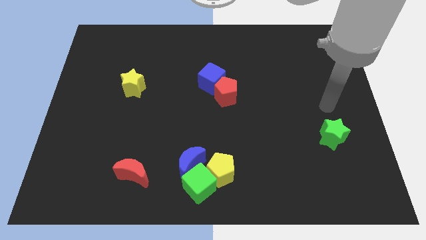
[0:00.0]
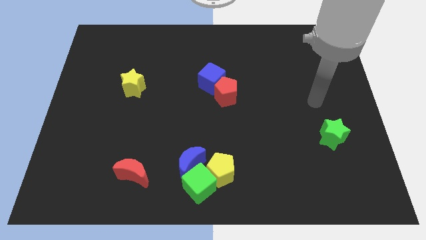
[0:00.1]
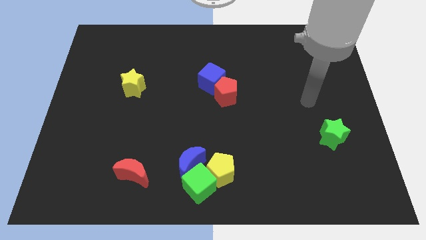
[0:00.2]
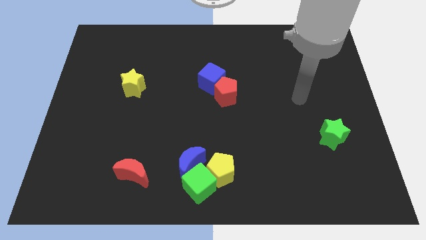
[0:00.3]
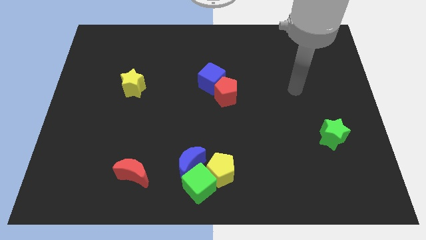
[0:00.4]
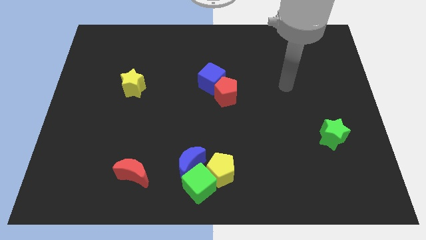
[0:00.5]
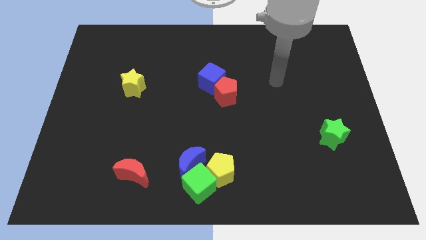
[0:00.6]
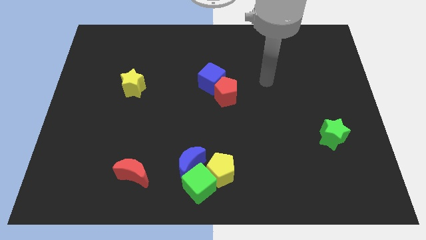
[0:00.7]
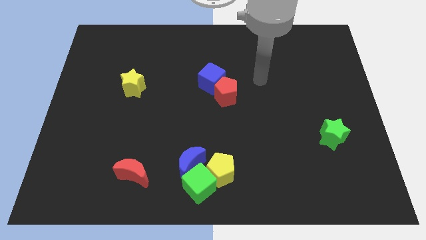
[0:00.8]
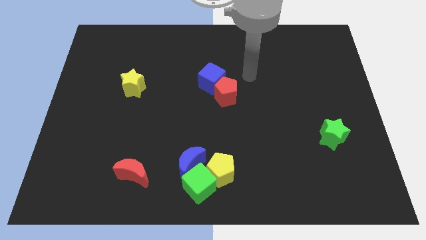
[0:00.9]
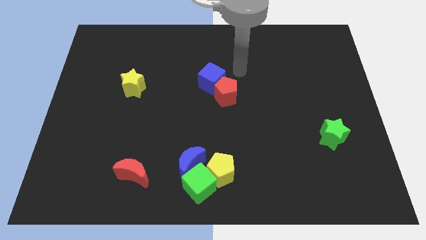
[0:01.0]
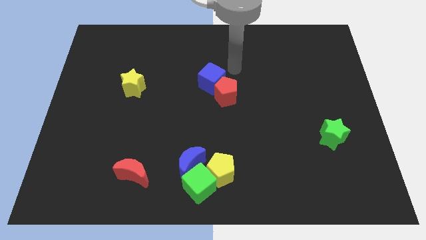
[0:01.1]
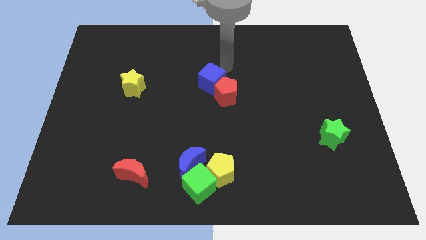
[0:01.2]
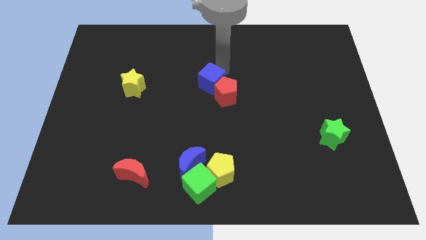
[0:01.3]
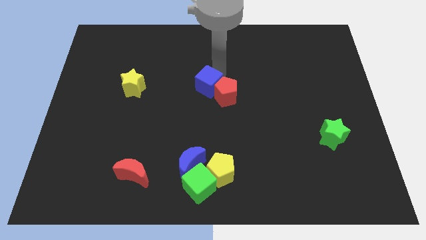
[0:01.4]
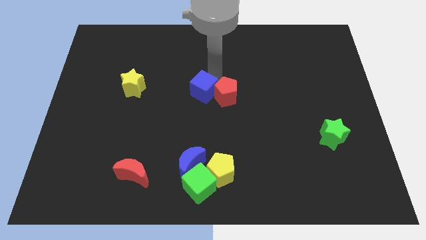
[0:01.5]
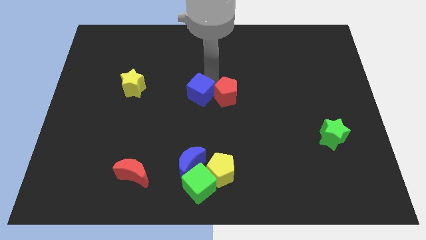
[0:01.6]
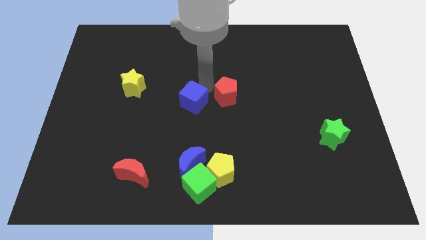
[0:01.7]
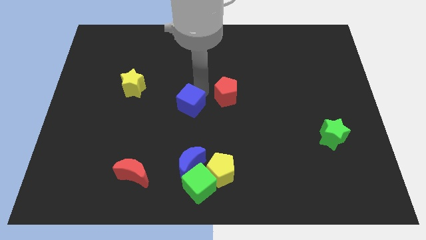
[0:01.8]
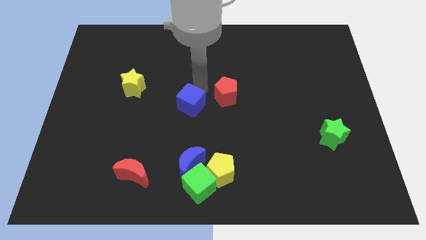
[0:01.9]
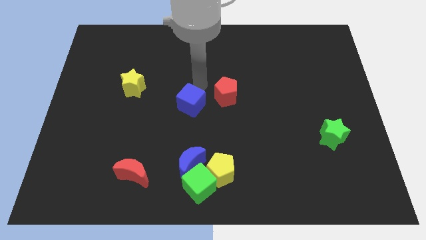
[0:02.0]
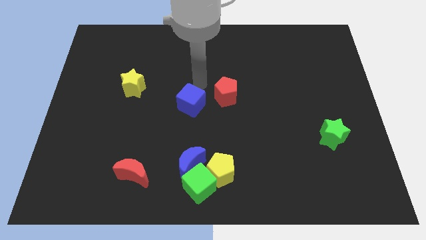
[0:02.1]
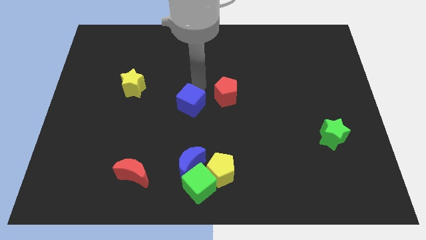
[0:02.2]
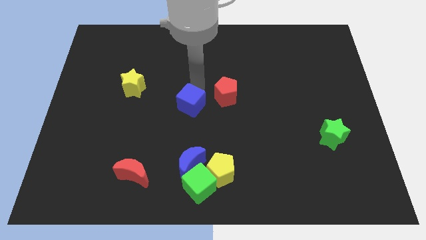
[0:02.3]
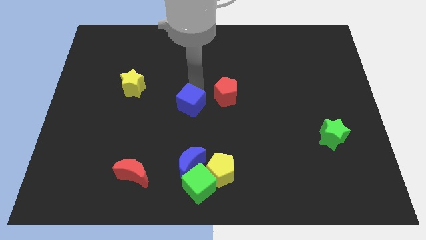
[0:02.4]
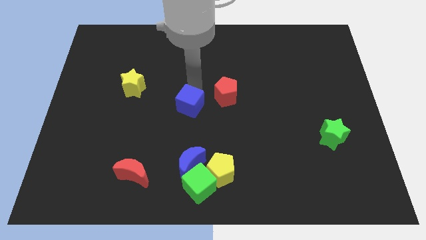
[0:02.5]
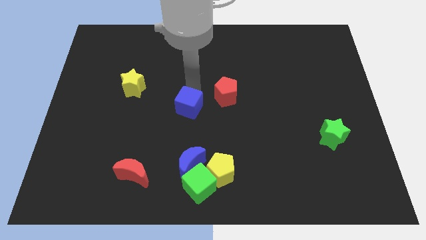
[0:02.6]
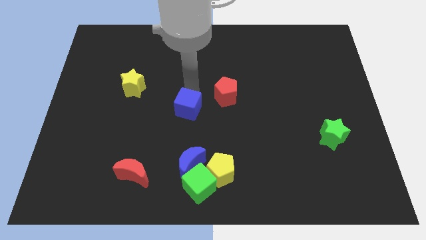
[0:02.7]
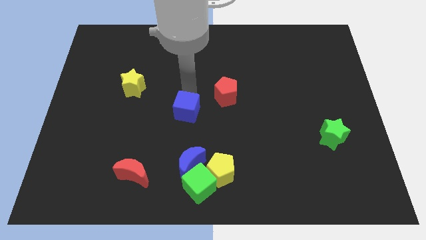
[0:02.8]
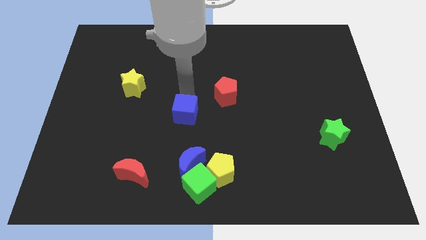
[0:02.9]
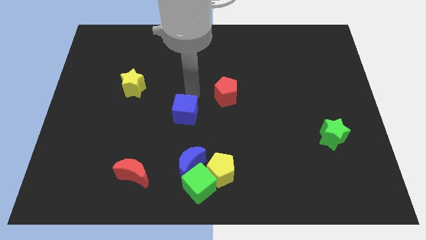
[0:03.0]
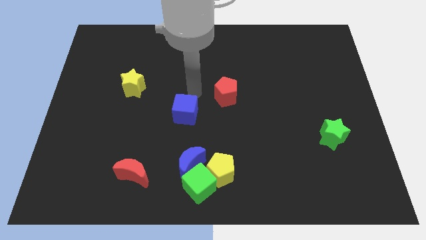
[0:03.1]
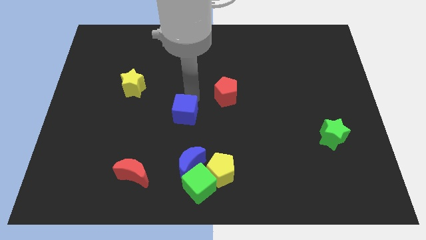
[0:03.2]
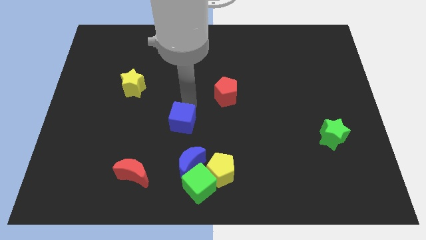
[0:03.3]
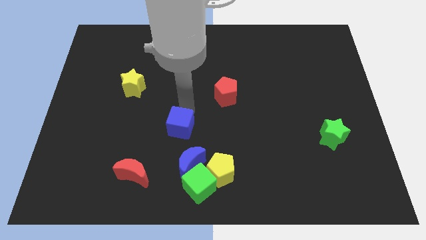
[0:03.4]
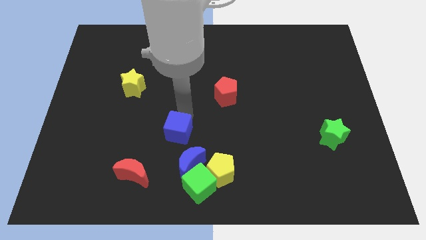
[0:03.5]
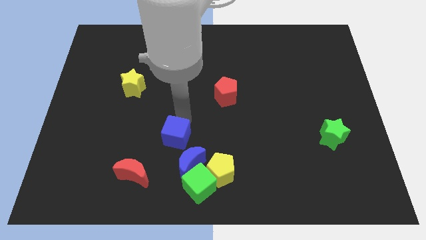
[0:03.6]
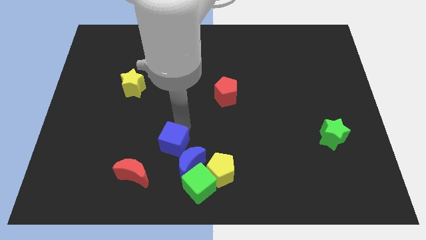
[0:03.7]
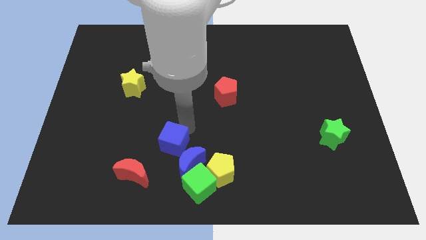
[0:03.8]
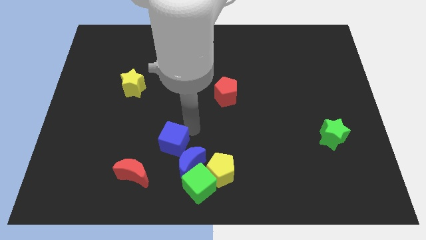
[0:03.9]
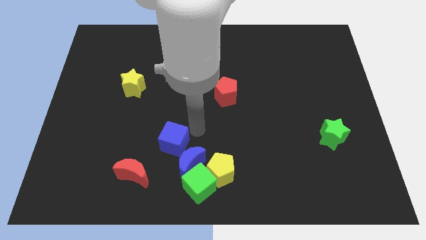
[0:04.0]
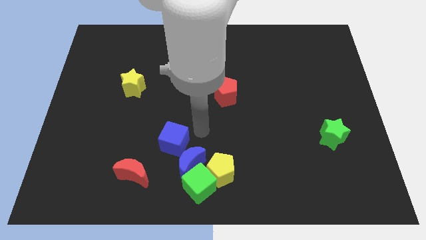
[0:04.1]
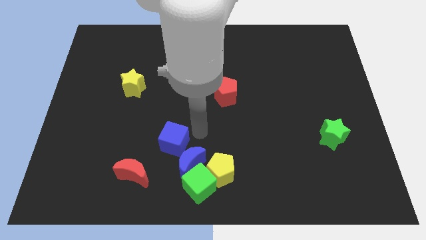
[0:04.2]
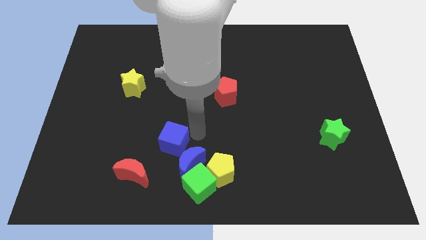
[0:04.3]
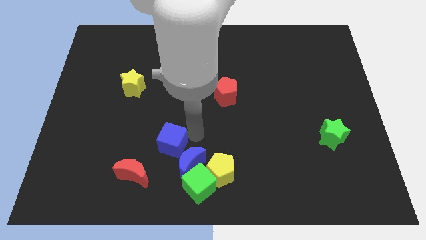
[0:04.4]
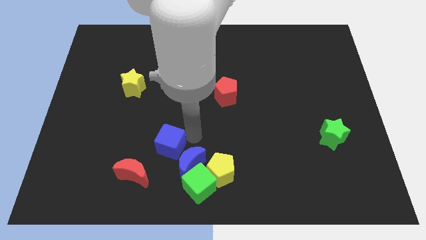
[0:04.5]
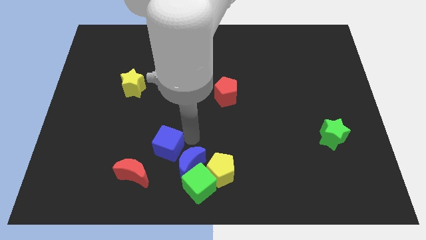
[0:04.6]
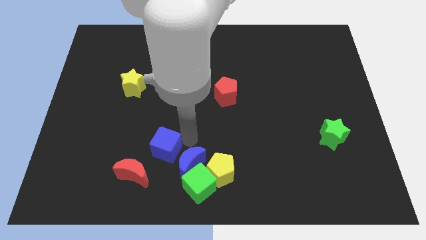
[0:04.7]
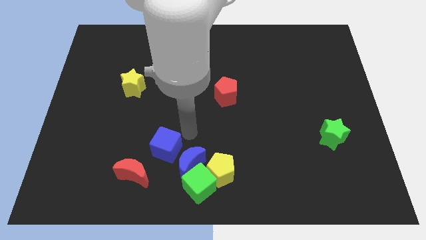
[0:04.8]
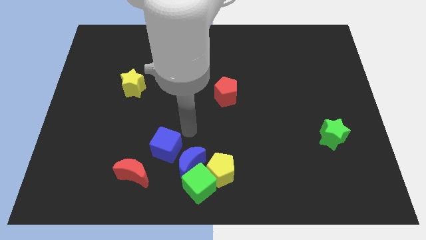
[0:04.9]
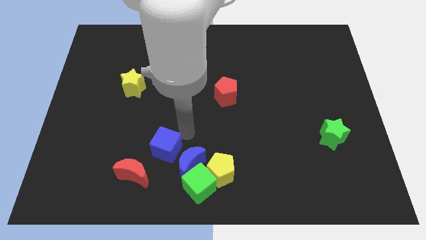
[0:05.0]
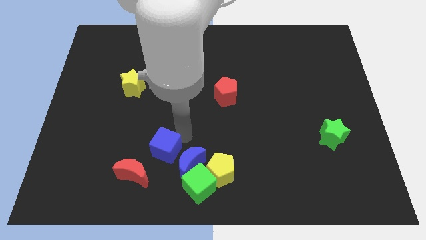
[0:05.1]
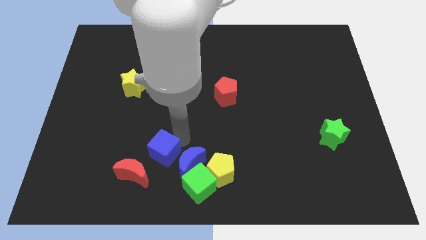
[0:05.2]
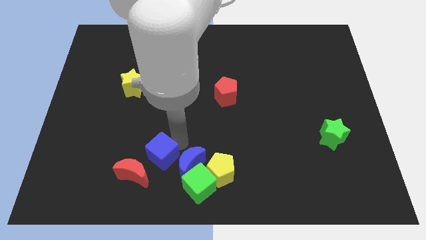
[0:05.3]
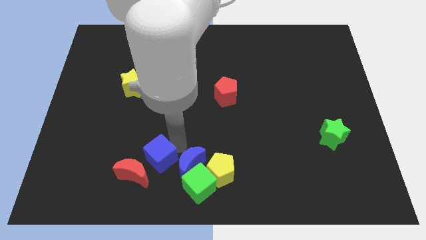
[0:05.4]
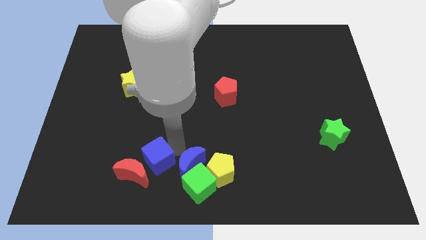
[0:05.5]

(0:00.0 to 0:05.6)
push the blue cube towards the red moon

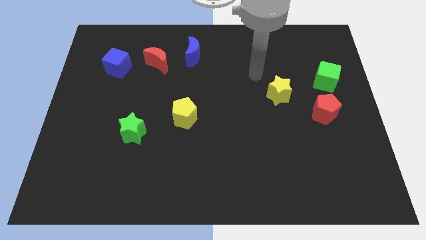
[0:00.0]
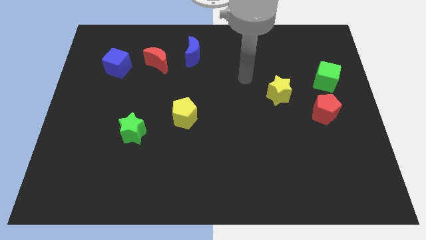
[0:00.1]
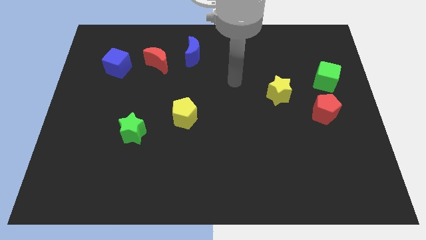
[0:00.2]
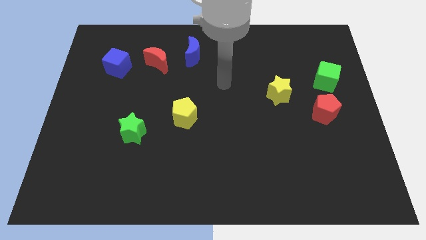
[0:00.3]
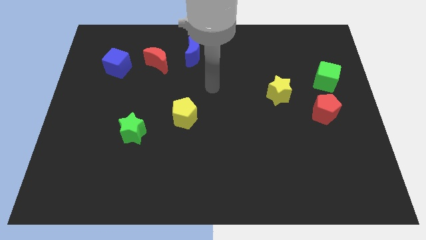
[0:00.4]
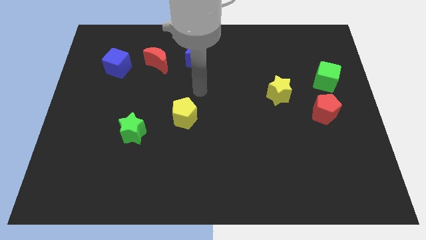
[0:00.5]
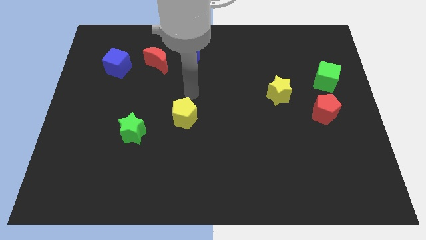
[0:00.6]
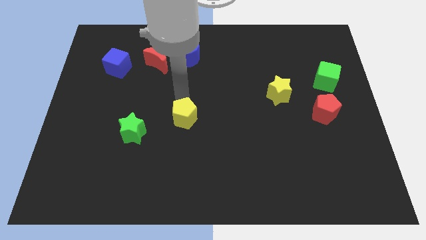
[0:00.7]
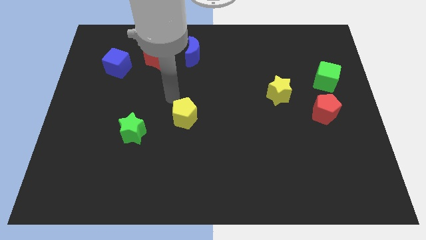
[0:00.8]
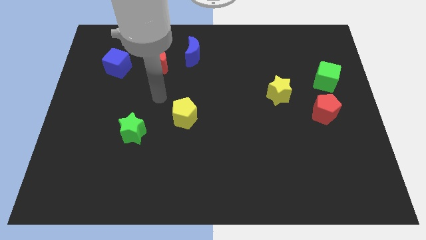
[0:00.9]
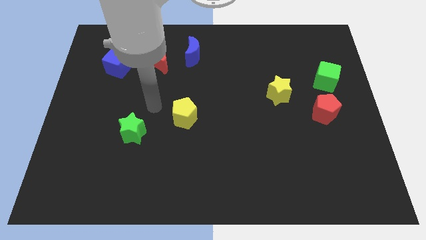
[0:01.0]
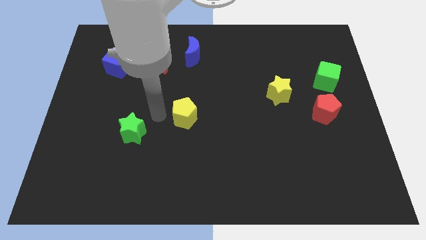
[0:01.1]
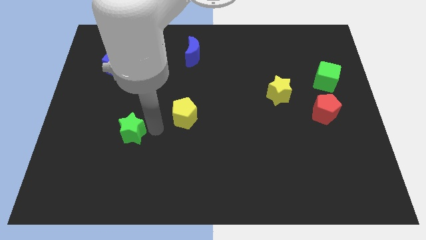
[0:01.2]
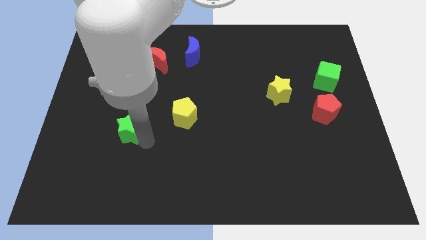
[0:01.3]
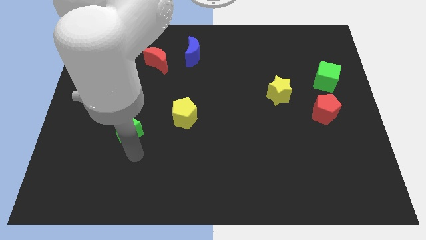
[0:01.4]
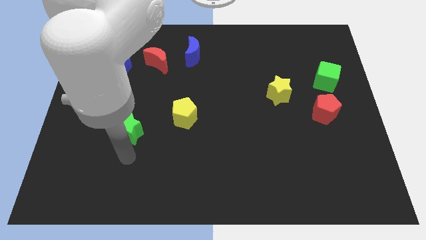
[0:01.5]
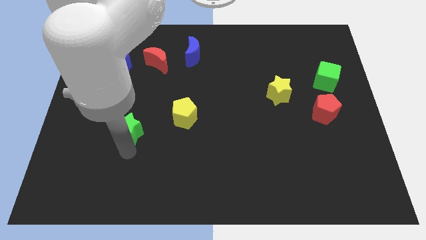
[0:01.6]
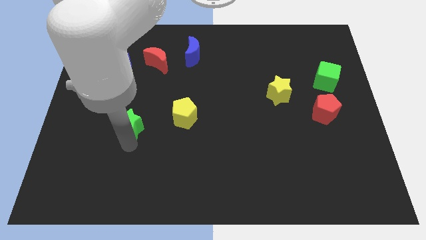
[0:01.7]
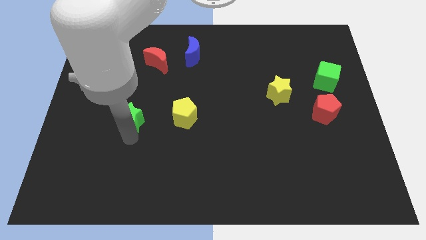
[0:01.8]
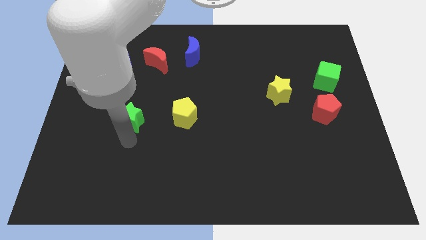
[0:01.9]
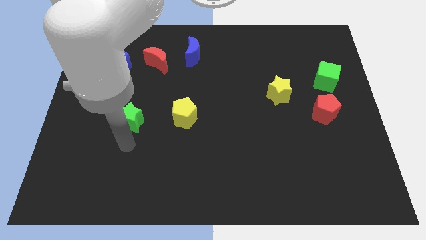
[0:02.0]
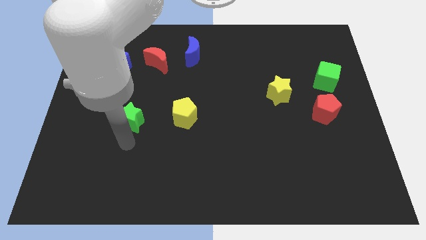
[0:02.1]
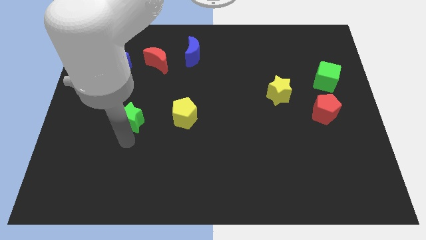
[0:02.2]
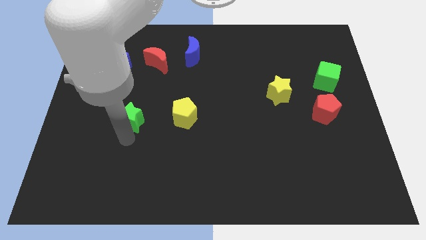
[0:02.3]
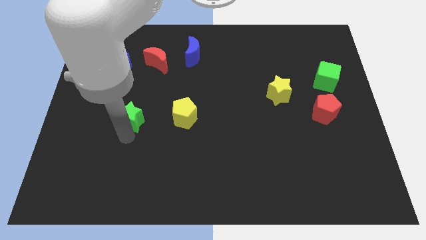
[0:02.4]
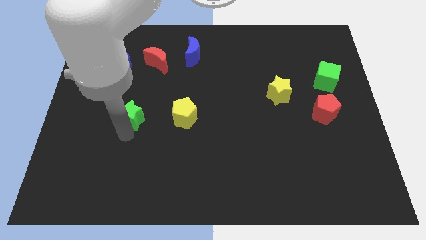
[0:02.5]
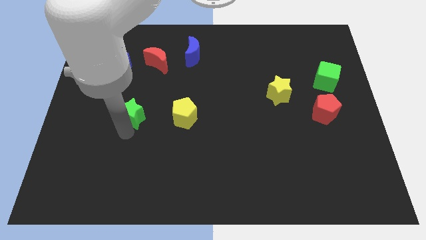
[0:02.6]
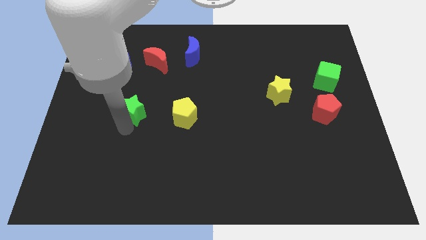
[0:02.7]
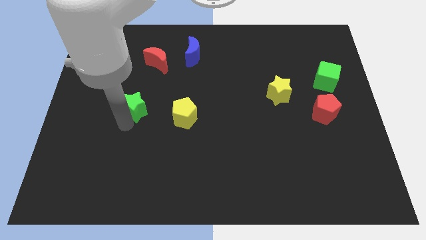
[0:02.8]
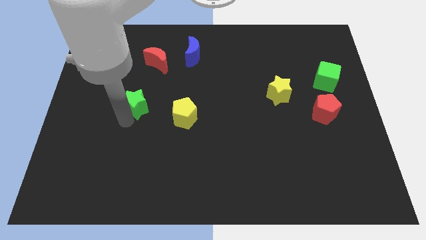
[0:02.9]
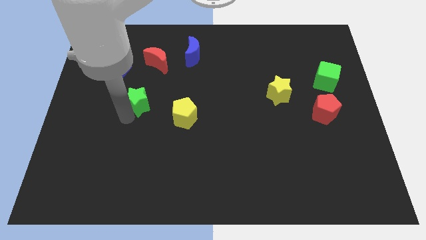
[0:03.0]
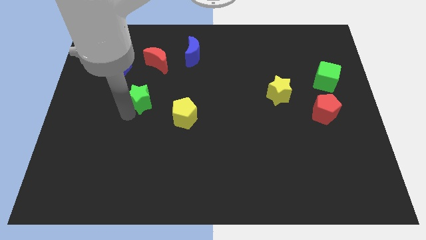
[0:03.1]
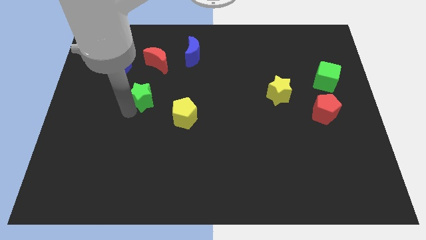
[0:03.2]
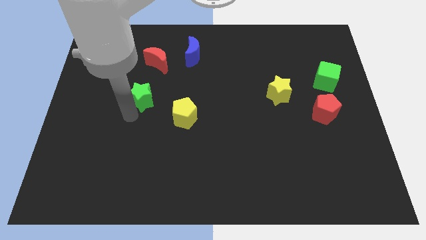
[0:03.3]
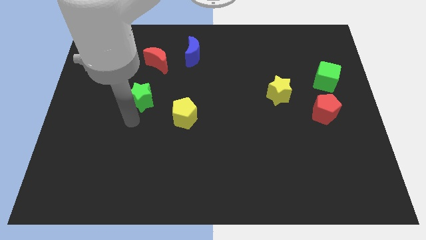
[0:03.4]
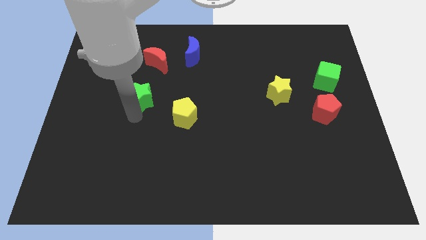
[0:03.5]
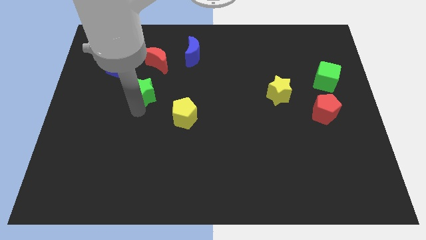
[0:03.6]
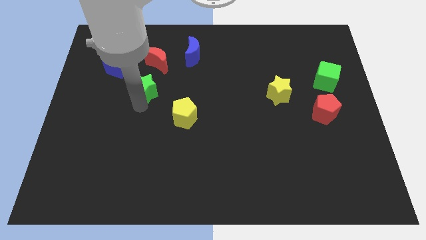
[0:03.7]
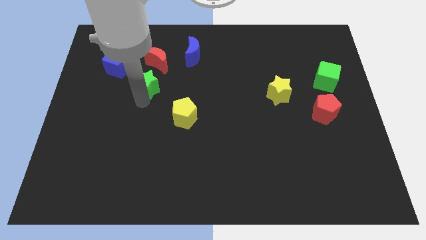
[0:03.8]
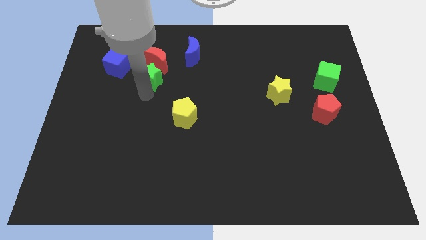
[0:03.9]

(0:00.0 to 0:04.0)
move the green star to the red moon
